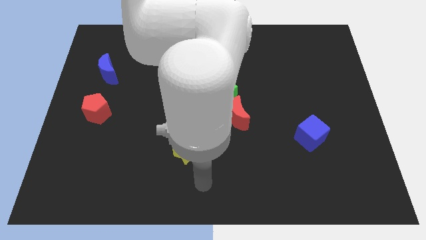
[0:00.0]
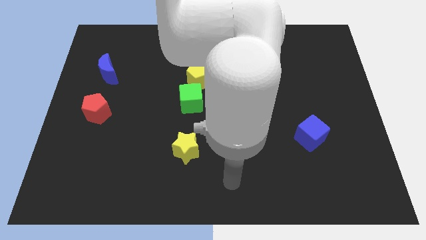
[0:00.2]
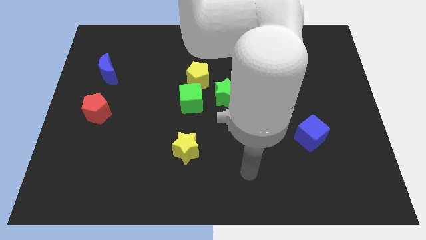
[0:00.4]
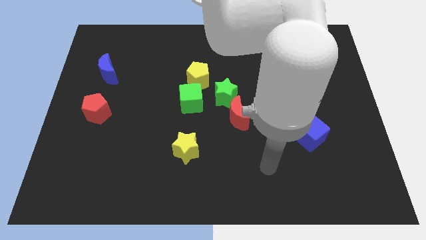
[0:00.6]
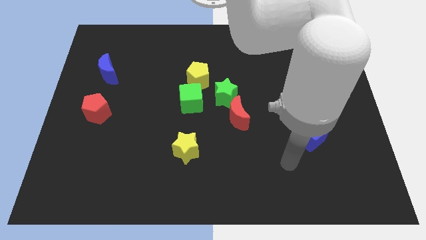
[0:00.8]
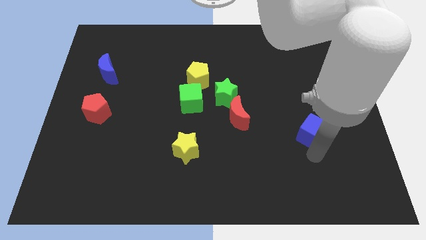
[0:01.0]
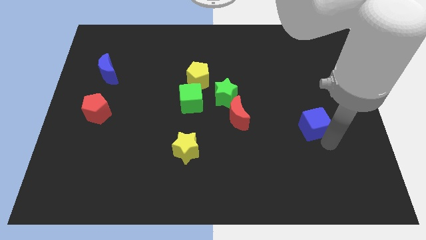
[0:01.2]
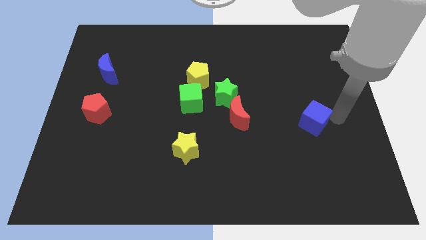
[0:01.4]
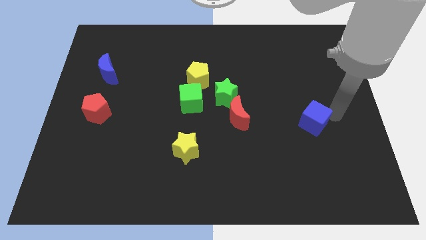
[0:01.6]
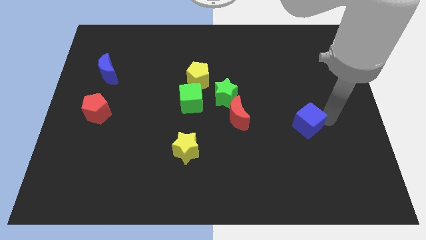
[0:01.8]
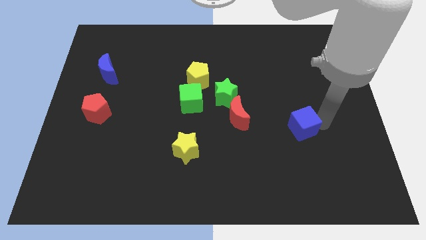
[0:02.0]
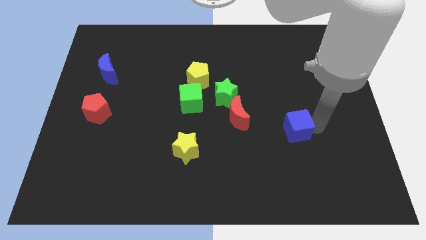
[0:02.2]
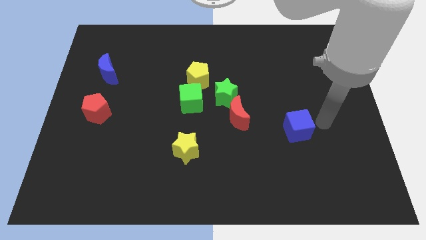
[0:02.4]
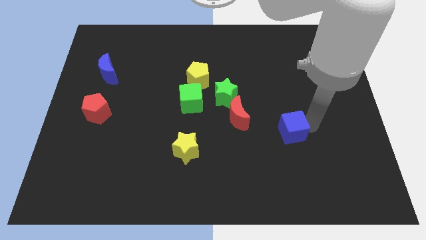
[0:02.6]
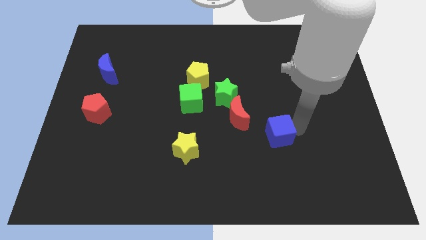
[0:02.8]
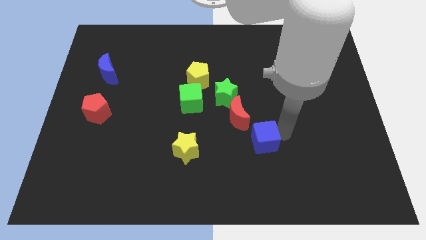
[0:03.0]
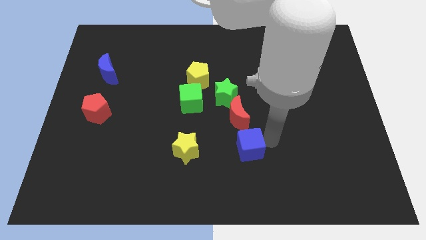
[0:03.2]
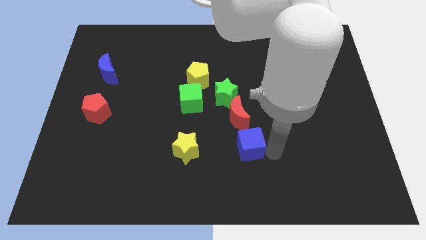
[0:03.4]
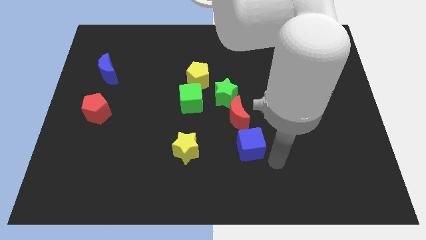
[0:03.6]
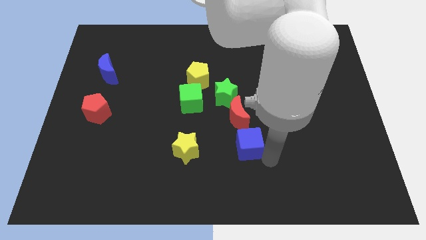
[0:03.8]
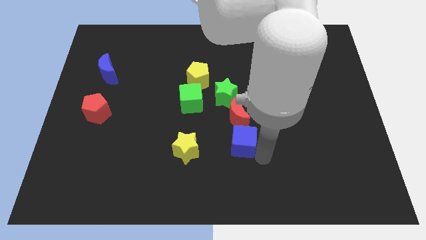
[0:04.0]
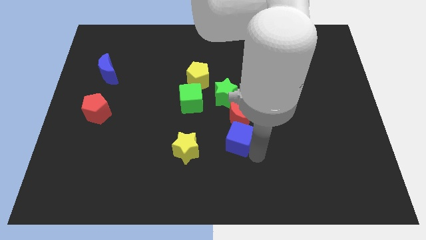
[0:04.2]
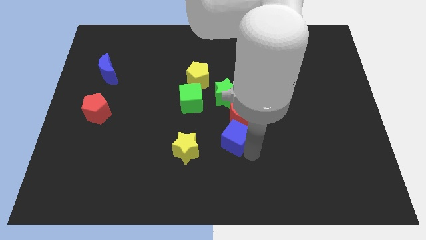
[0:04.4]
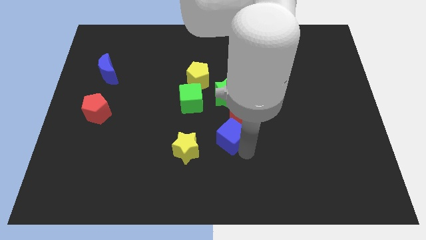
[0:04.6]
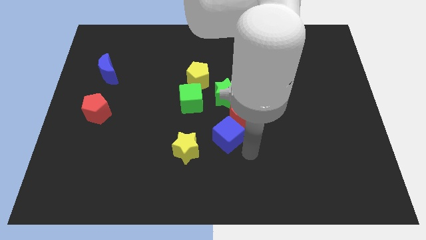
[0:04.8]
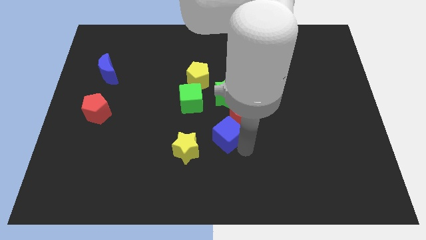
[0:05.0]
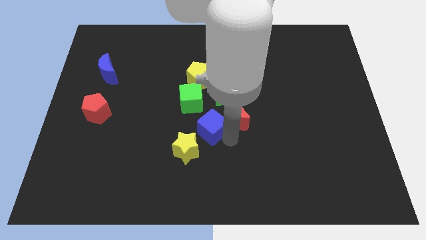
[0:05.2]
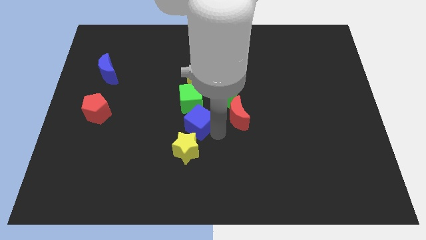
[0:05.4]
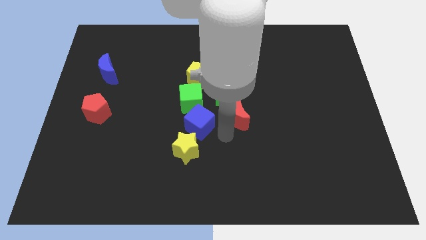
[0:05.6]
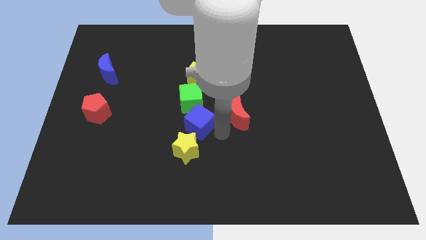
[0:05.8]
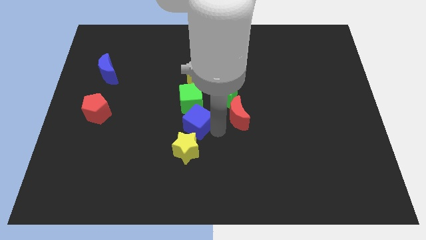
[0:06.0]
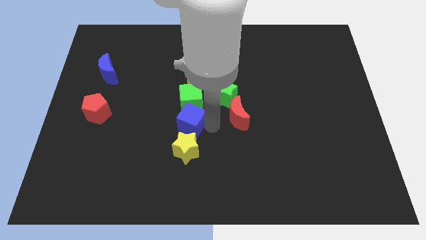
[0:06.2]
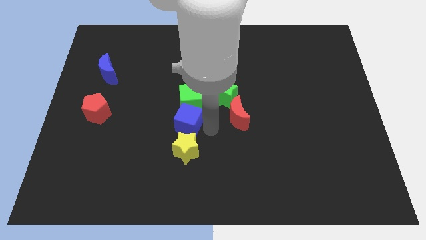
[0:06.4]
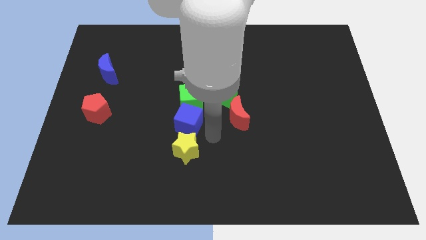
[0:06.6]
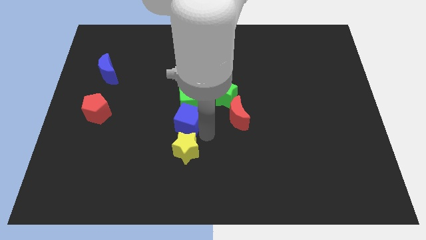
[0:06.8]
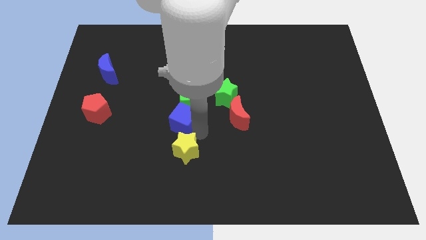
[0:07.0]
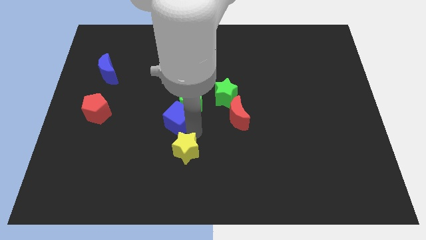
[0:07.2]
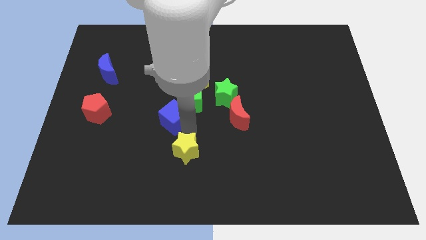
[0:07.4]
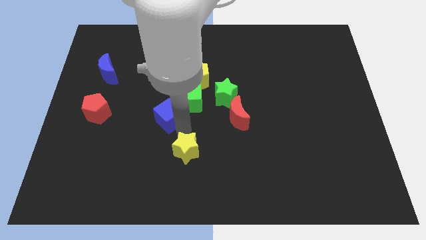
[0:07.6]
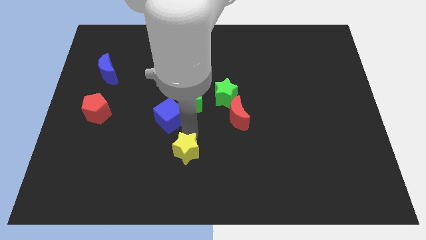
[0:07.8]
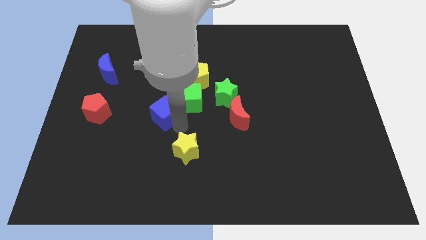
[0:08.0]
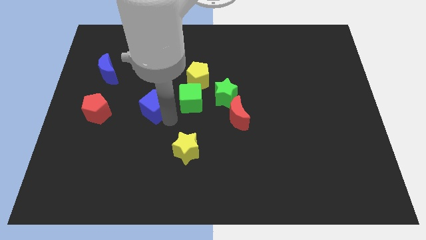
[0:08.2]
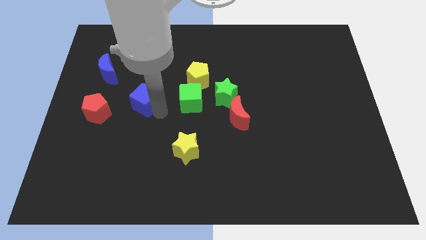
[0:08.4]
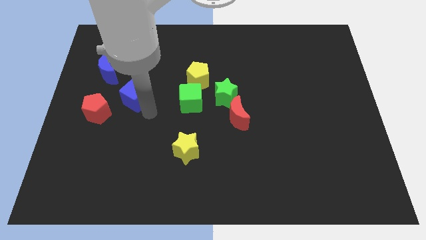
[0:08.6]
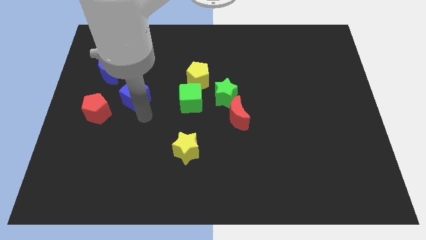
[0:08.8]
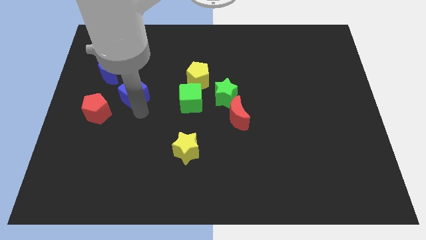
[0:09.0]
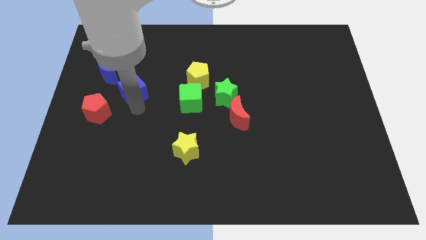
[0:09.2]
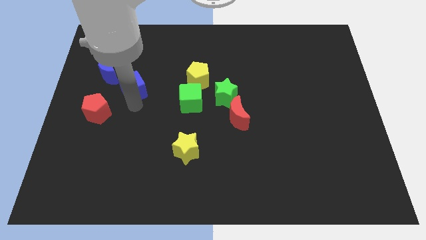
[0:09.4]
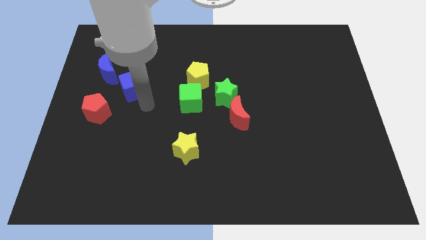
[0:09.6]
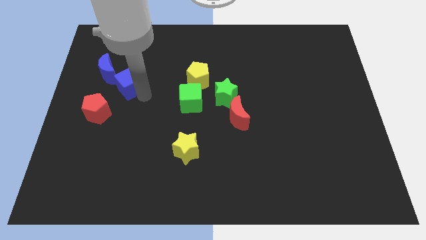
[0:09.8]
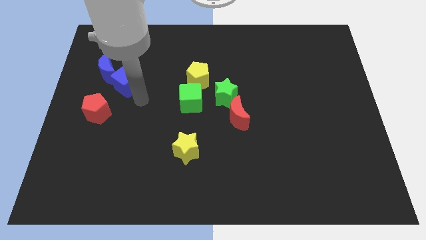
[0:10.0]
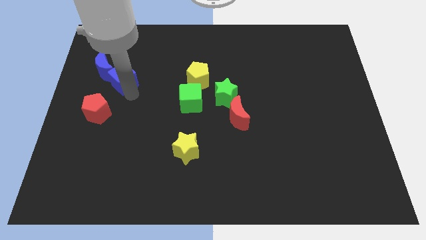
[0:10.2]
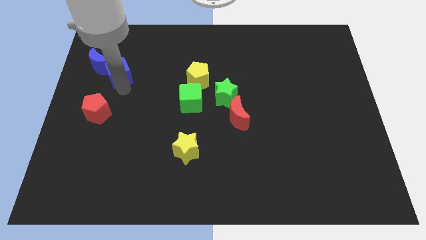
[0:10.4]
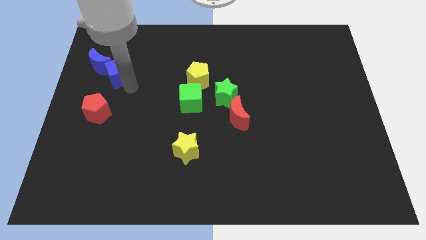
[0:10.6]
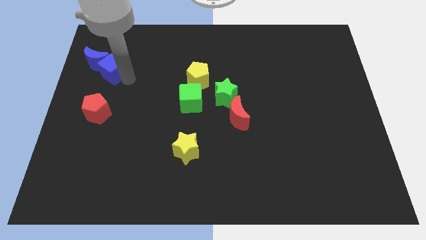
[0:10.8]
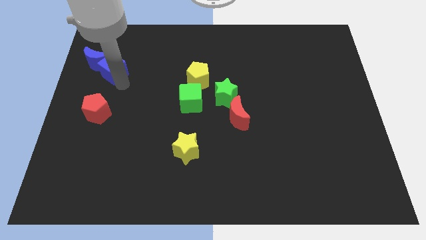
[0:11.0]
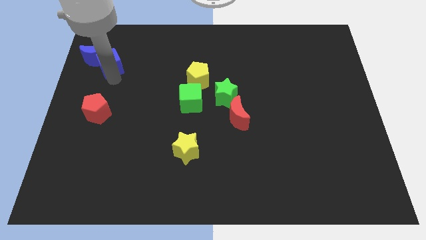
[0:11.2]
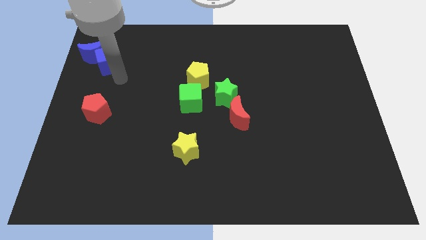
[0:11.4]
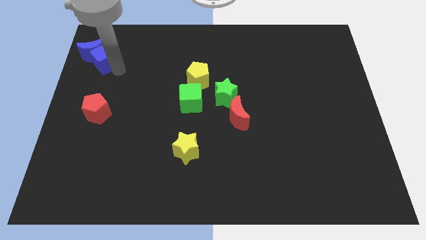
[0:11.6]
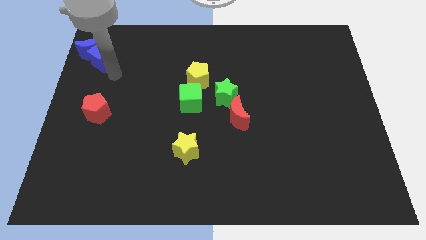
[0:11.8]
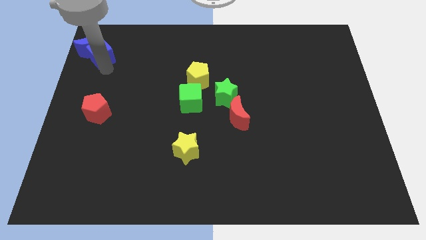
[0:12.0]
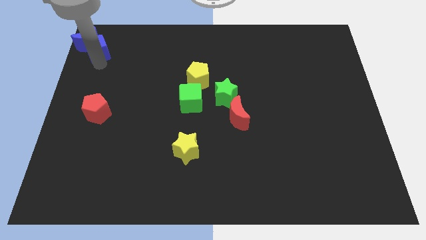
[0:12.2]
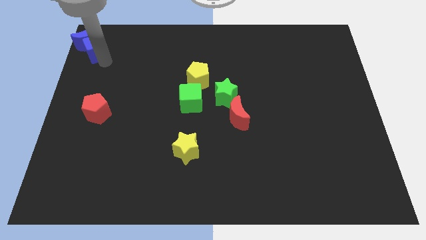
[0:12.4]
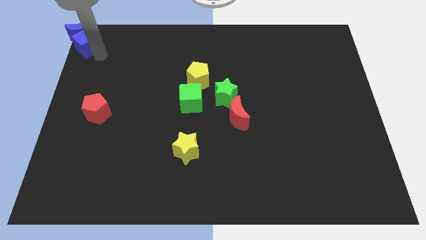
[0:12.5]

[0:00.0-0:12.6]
move the blue cube to the top left of the board

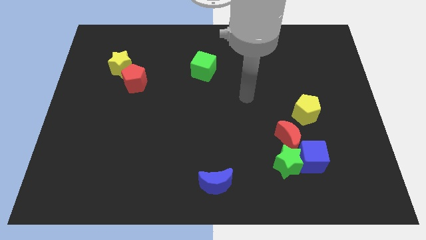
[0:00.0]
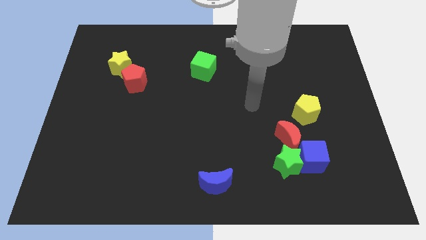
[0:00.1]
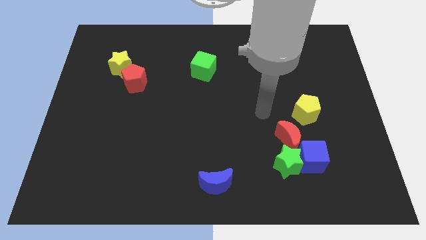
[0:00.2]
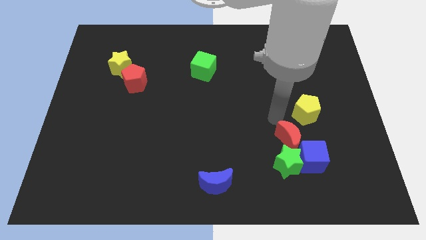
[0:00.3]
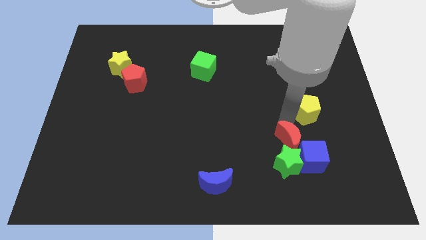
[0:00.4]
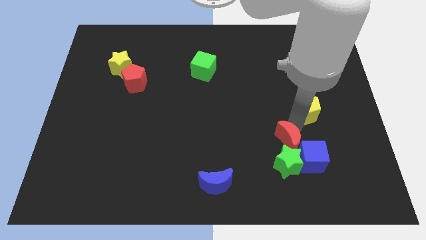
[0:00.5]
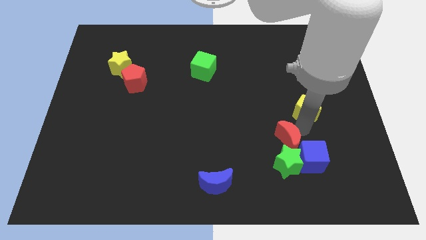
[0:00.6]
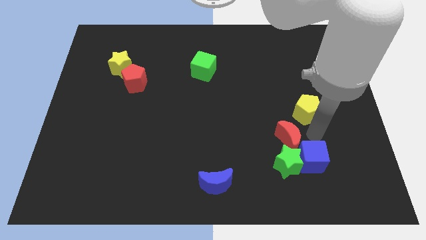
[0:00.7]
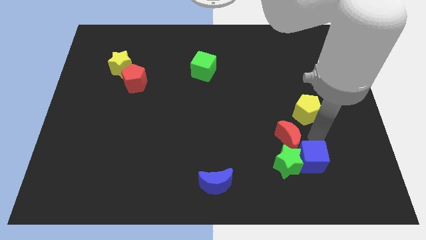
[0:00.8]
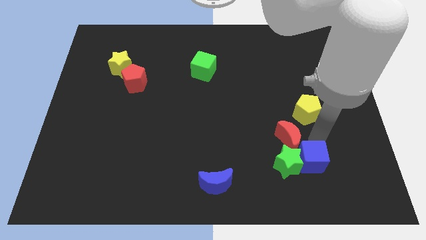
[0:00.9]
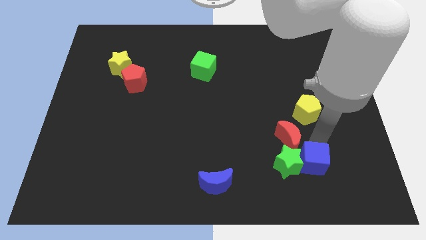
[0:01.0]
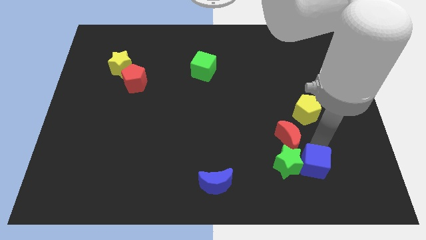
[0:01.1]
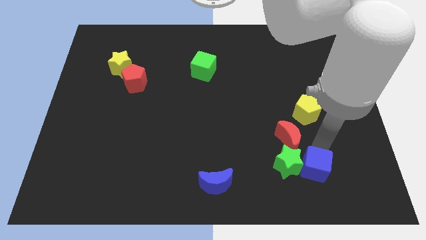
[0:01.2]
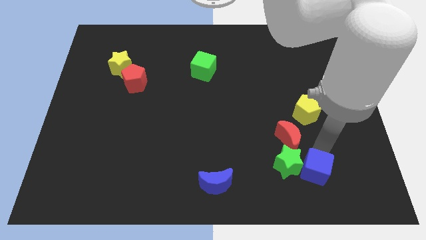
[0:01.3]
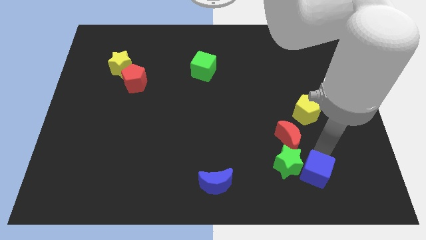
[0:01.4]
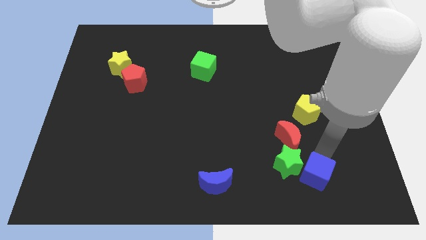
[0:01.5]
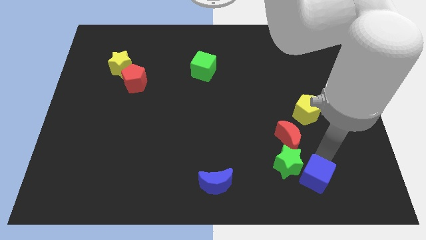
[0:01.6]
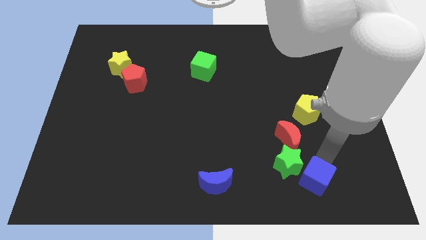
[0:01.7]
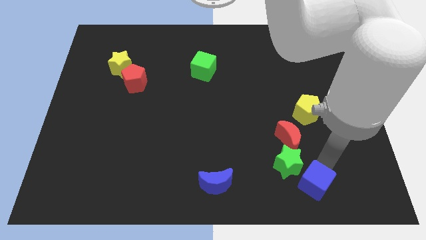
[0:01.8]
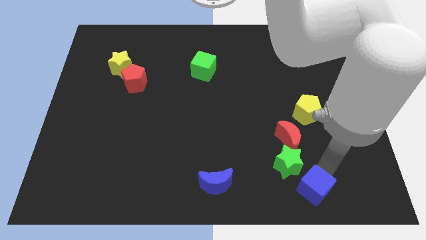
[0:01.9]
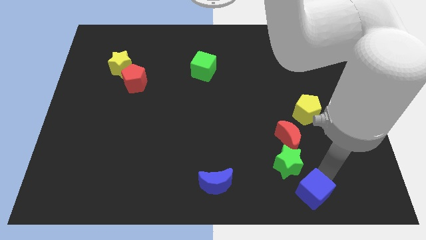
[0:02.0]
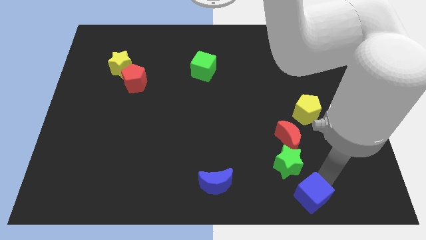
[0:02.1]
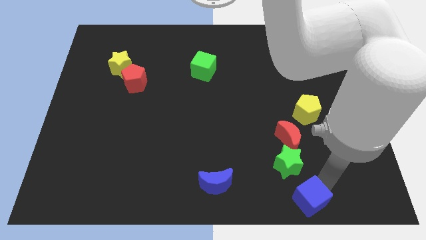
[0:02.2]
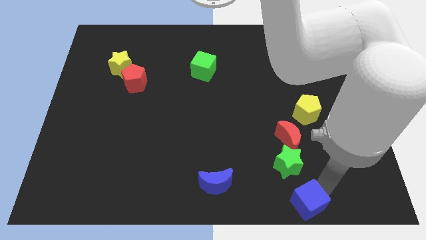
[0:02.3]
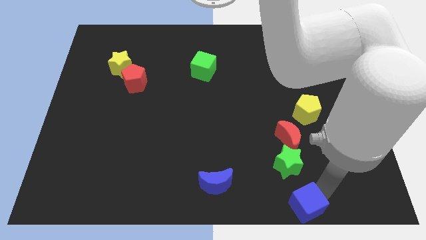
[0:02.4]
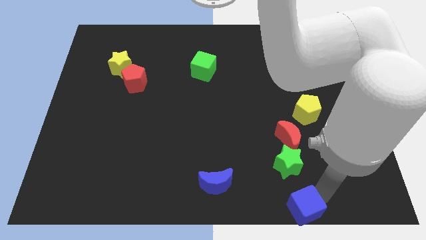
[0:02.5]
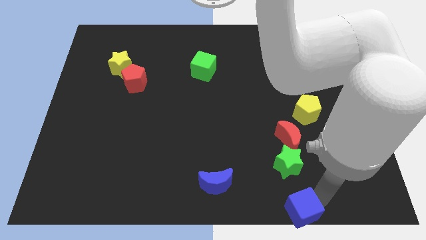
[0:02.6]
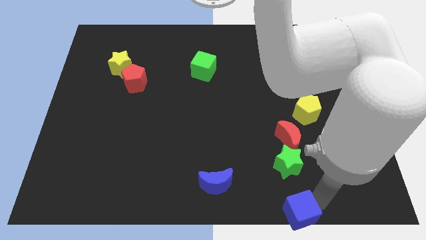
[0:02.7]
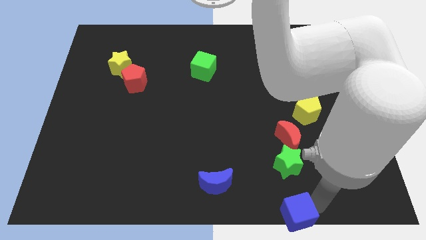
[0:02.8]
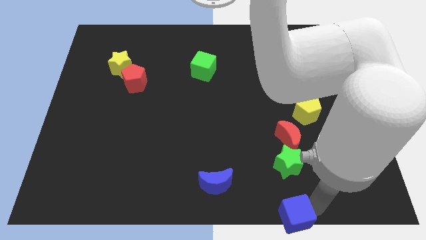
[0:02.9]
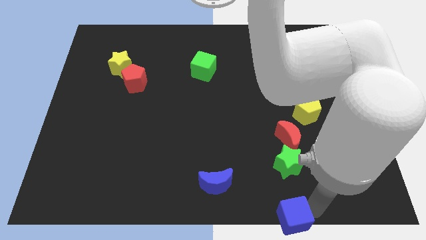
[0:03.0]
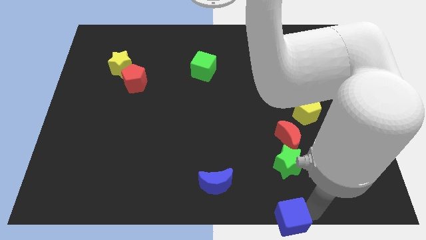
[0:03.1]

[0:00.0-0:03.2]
push the blue cube to the bottom side
